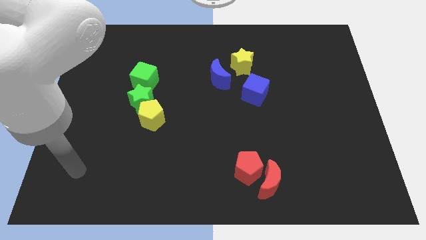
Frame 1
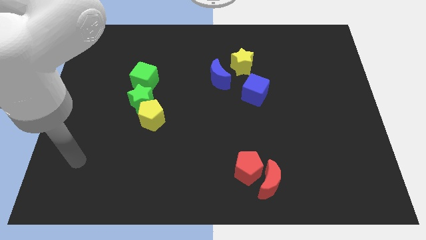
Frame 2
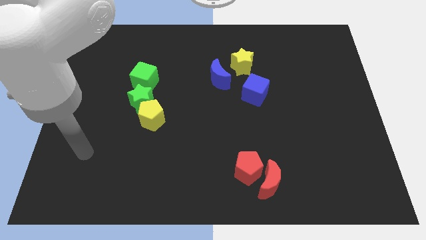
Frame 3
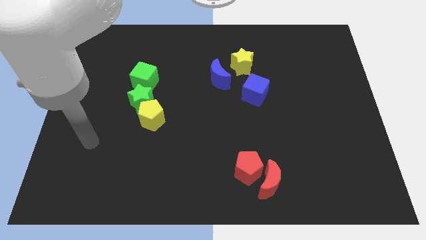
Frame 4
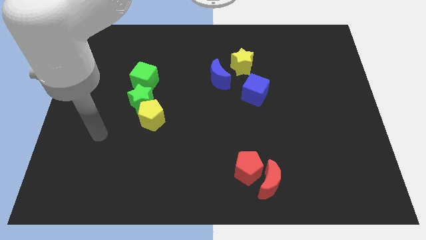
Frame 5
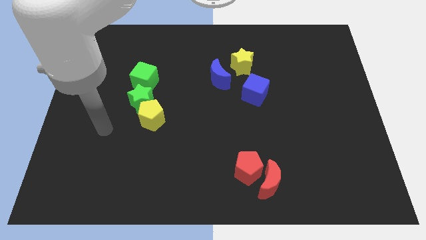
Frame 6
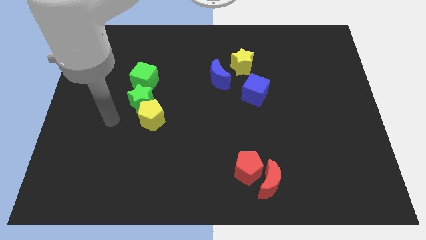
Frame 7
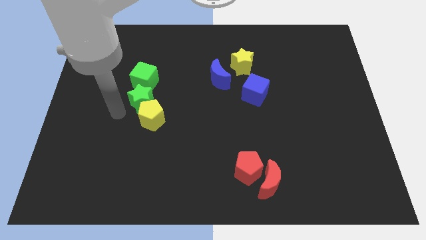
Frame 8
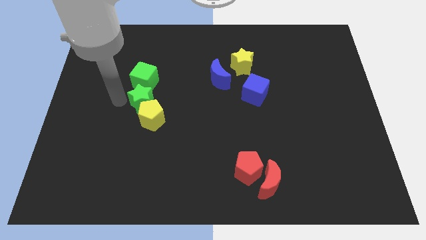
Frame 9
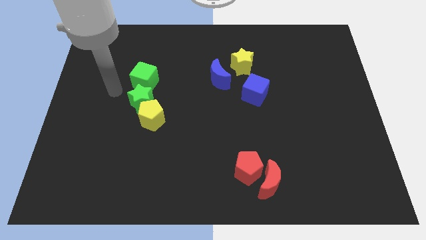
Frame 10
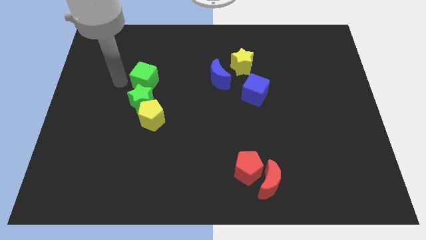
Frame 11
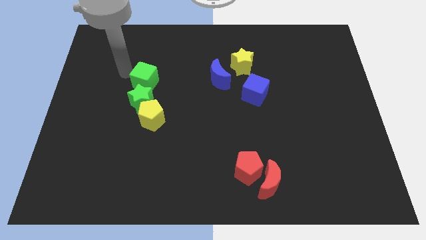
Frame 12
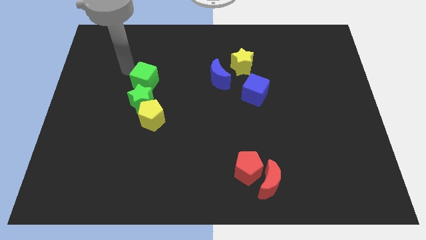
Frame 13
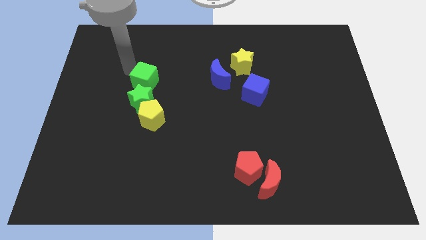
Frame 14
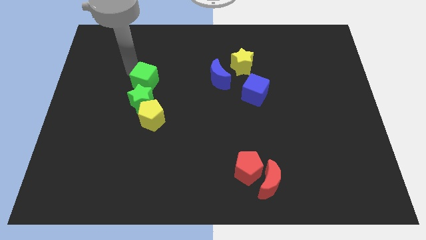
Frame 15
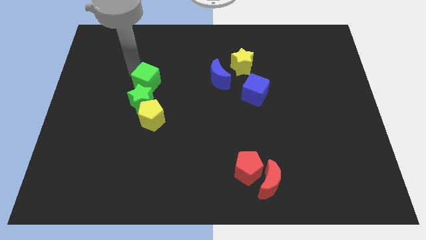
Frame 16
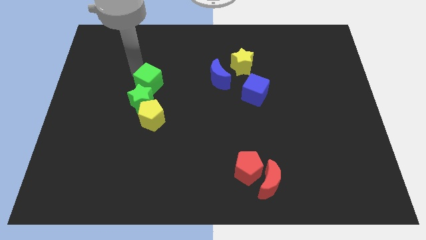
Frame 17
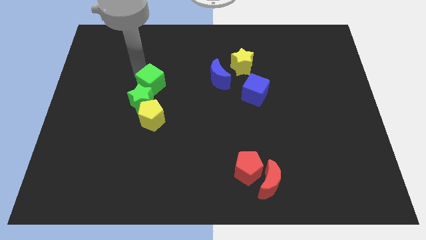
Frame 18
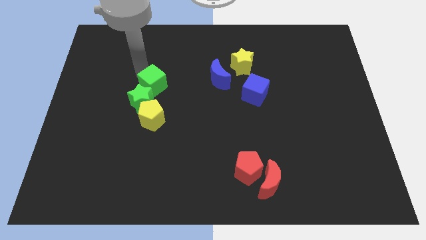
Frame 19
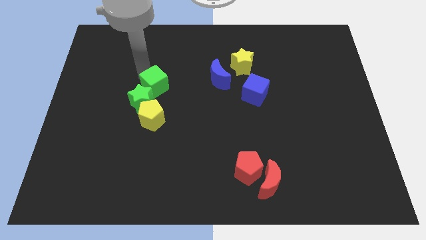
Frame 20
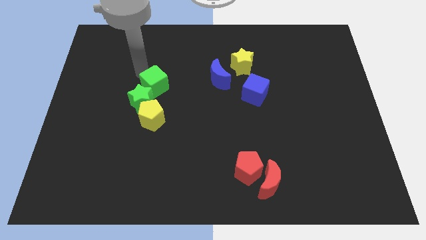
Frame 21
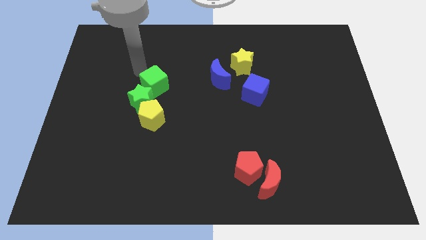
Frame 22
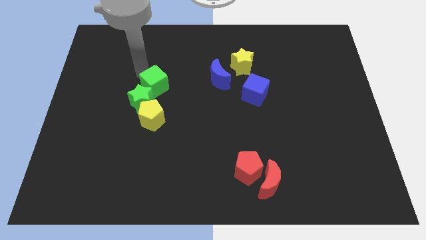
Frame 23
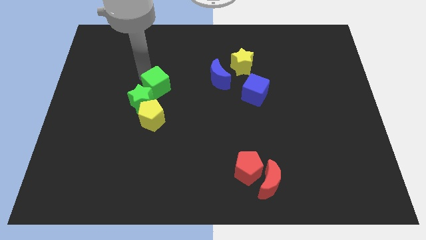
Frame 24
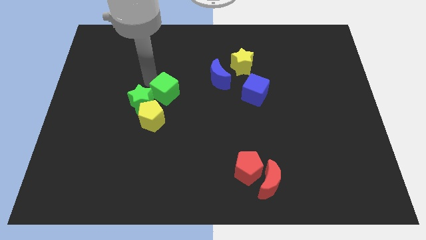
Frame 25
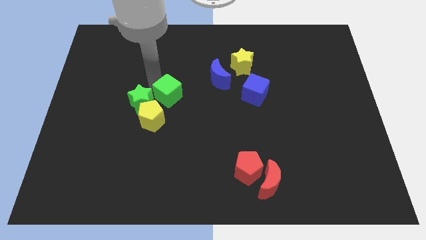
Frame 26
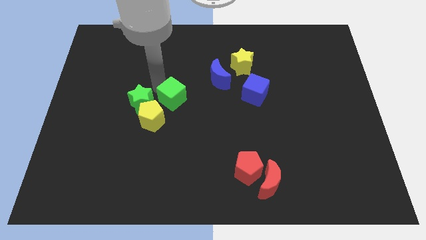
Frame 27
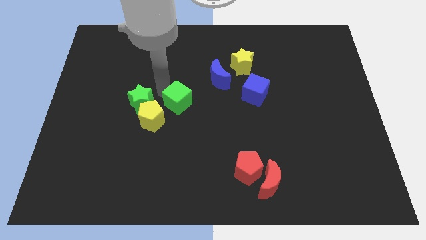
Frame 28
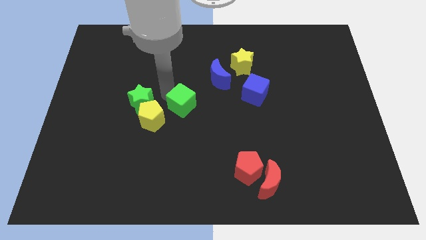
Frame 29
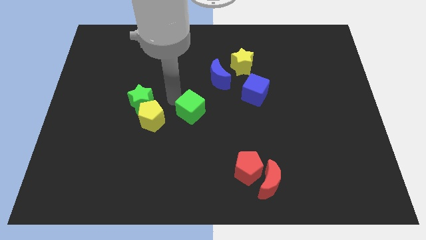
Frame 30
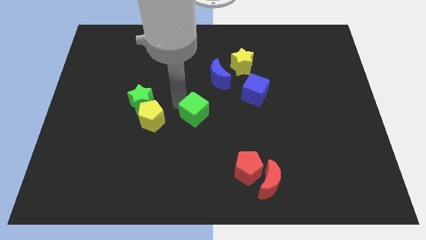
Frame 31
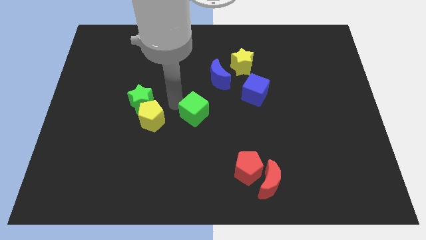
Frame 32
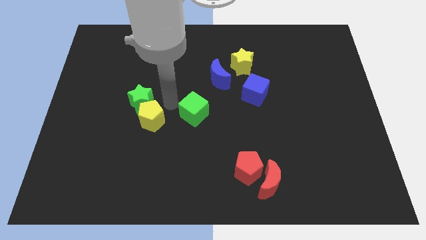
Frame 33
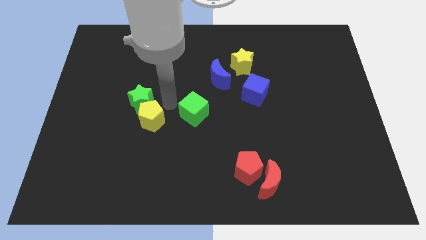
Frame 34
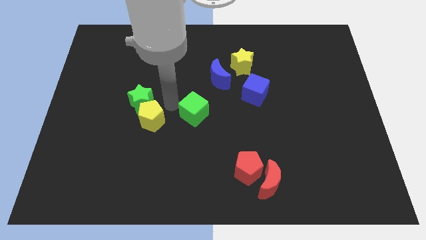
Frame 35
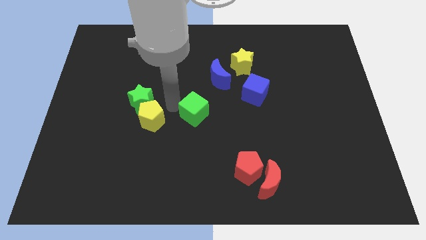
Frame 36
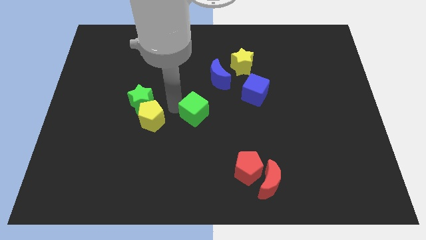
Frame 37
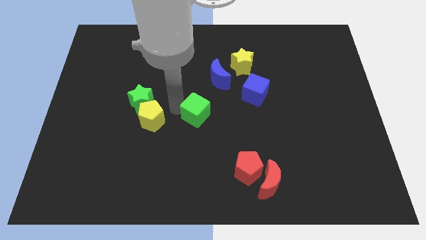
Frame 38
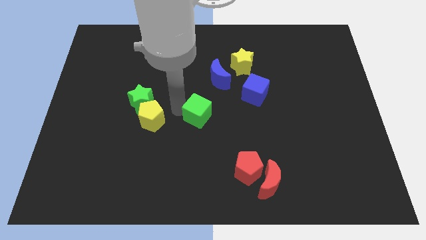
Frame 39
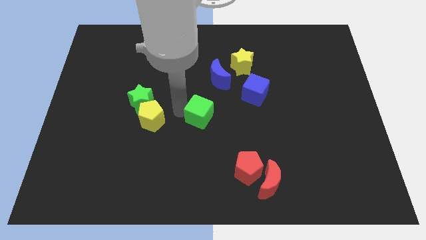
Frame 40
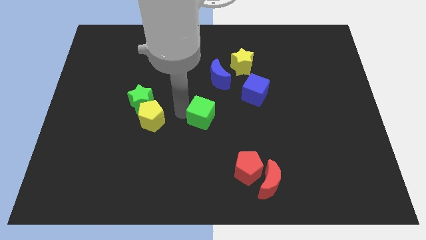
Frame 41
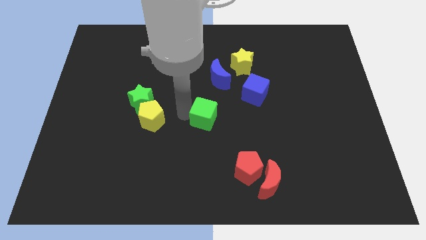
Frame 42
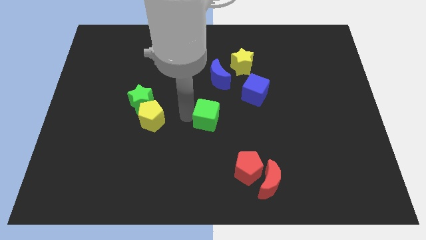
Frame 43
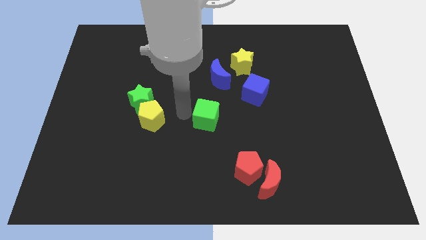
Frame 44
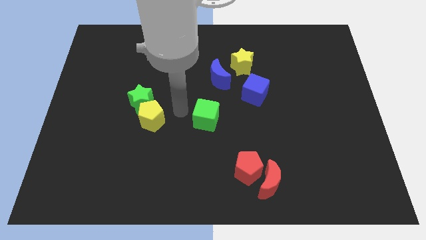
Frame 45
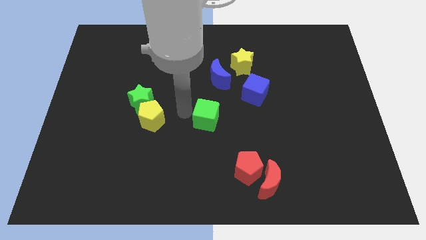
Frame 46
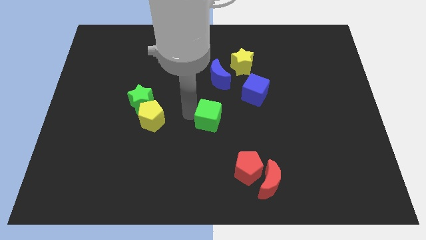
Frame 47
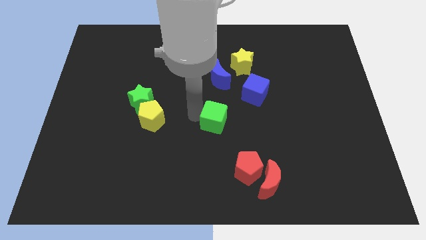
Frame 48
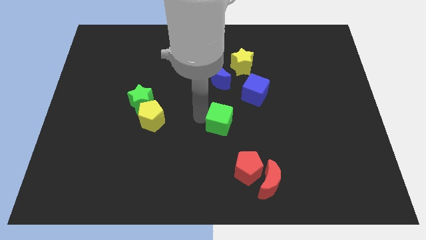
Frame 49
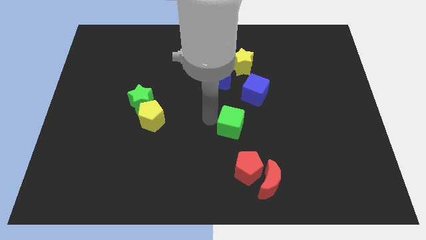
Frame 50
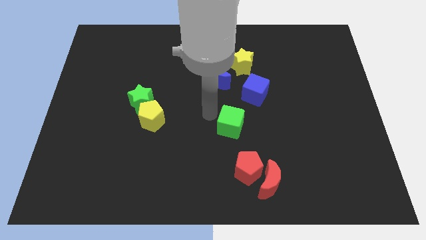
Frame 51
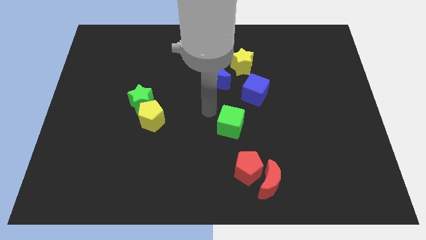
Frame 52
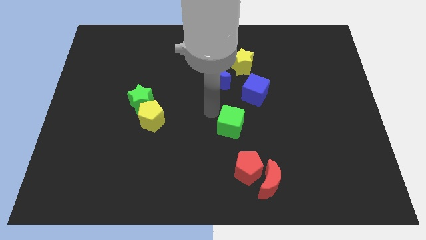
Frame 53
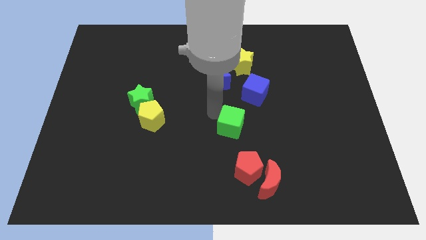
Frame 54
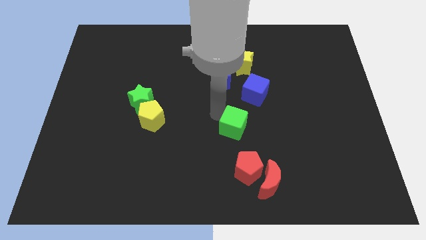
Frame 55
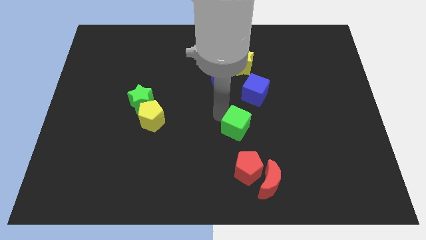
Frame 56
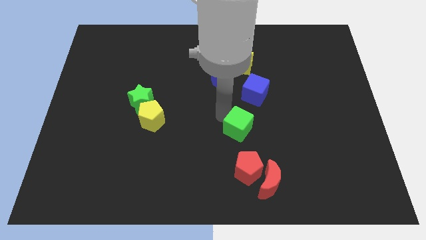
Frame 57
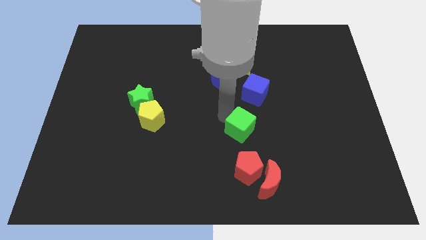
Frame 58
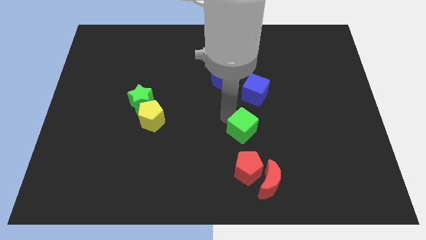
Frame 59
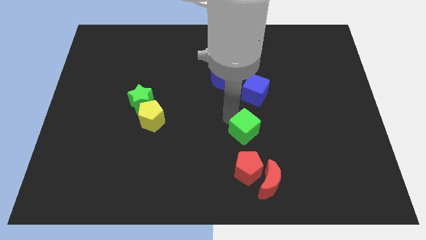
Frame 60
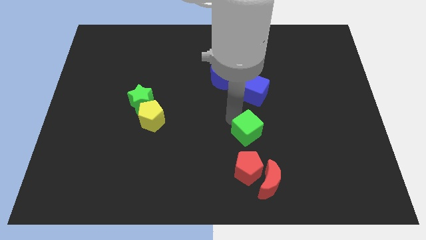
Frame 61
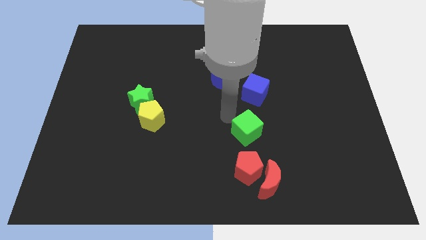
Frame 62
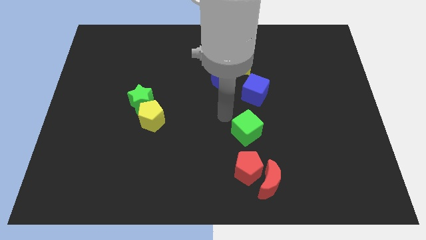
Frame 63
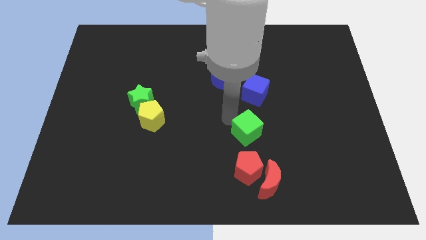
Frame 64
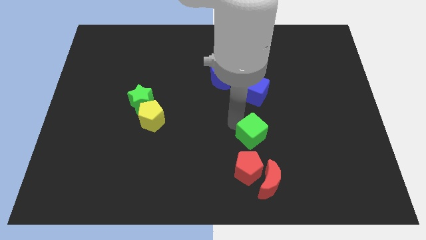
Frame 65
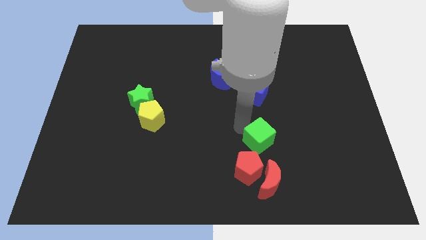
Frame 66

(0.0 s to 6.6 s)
move the green cube to the top right side of the red pentagon
